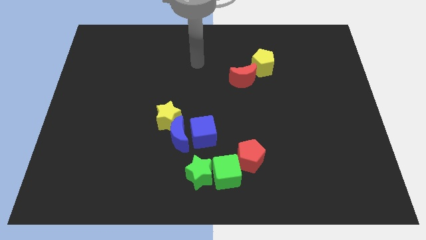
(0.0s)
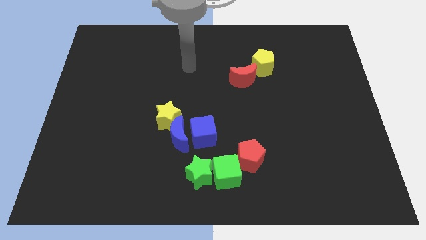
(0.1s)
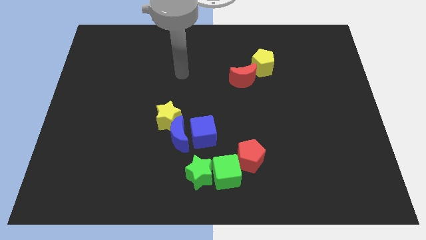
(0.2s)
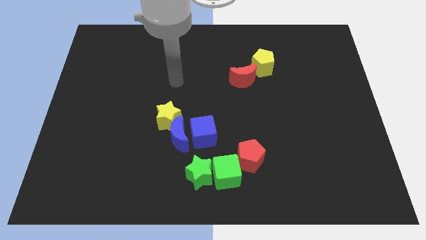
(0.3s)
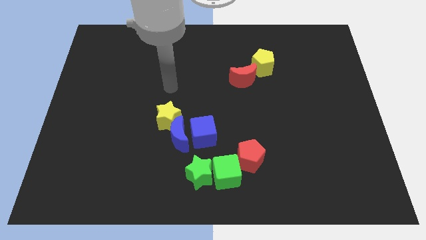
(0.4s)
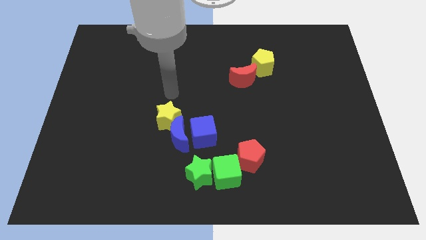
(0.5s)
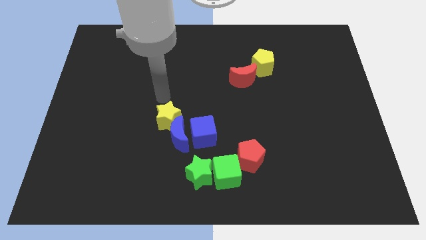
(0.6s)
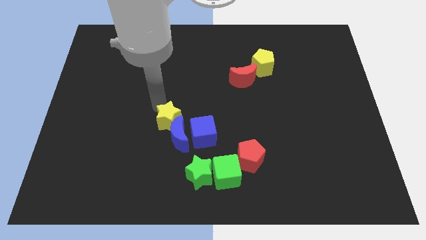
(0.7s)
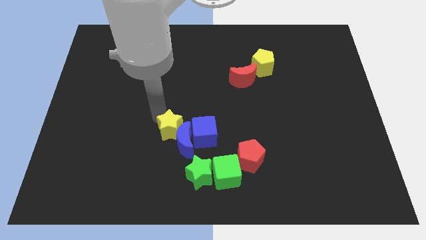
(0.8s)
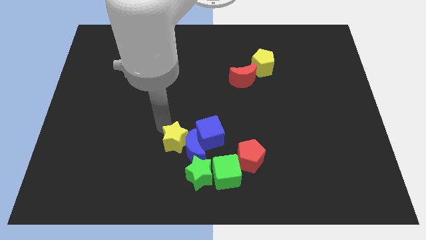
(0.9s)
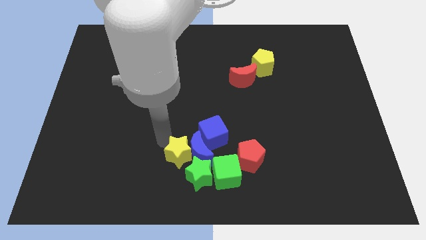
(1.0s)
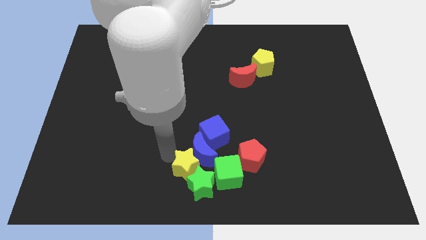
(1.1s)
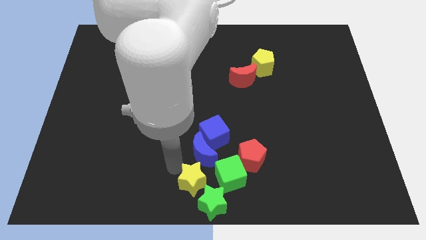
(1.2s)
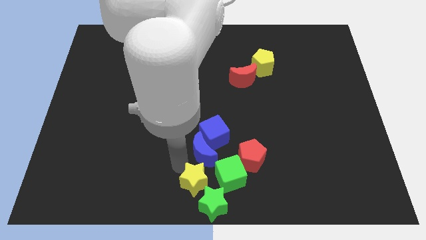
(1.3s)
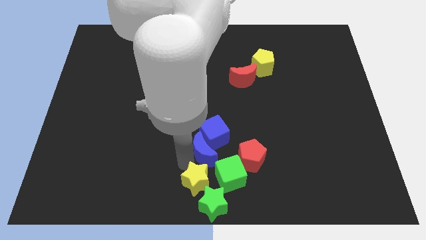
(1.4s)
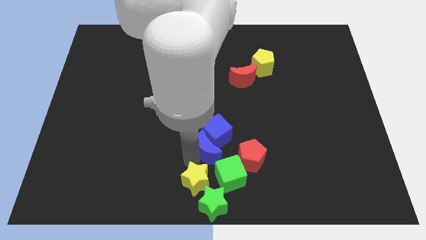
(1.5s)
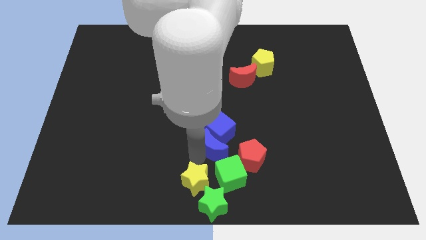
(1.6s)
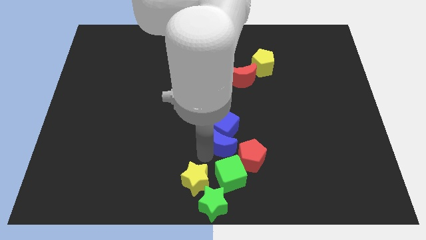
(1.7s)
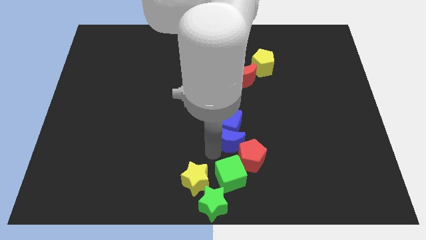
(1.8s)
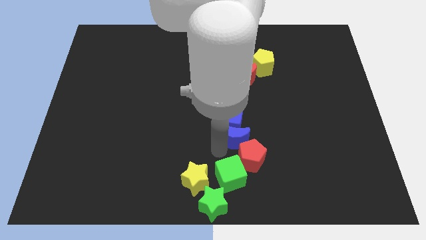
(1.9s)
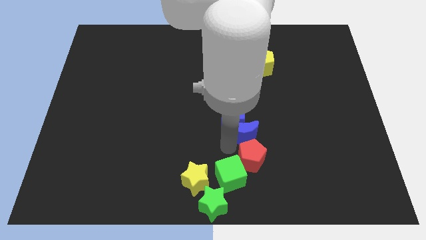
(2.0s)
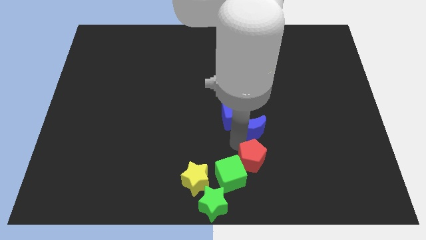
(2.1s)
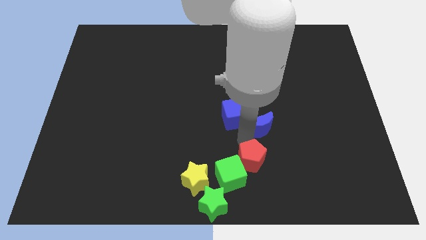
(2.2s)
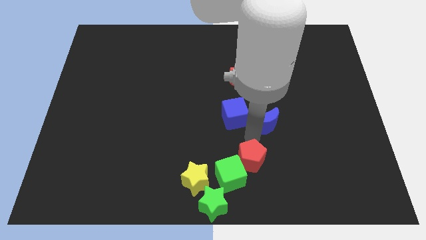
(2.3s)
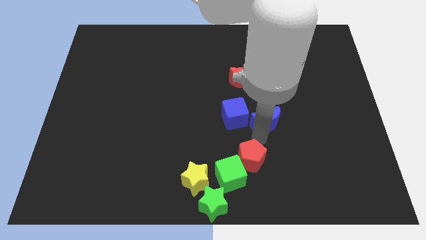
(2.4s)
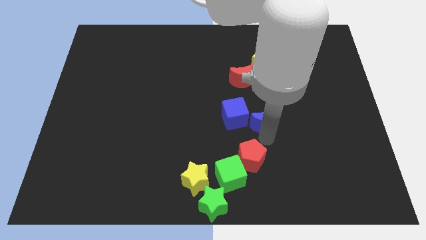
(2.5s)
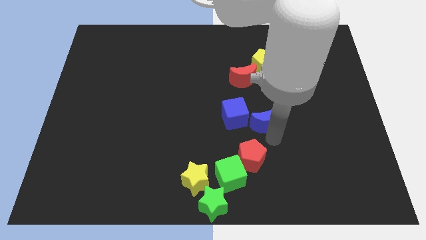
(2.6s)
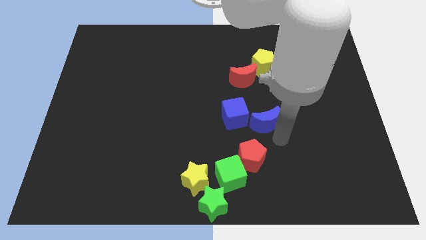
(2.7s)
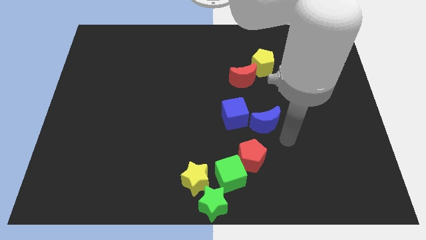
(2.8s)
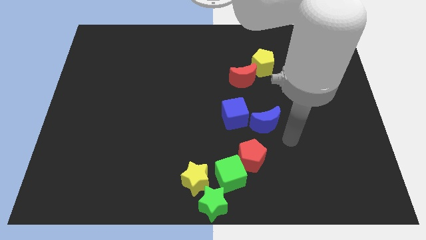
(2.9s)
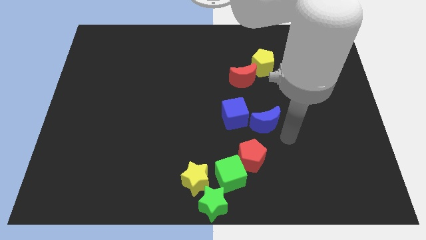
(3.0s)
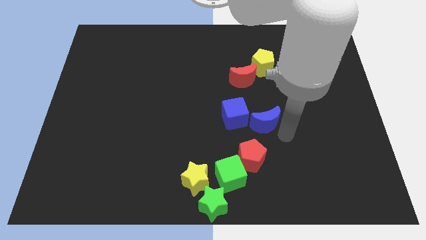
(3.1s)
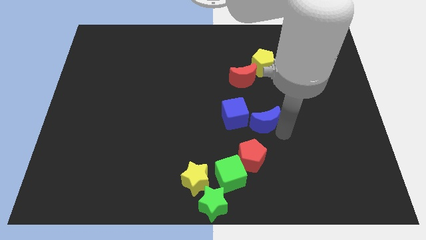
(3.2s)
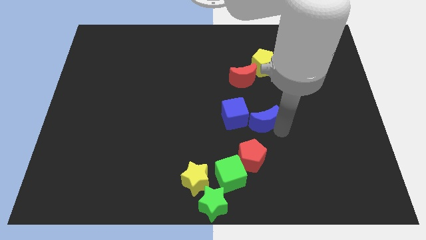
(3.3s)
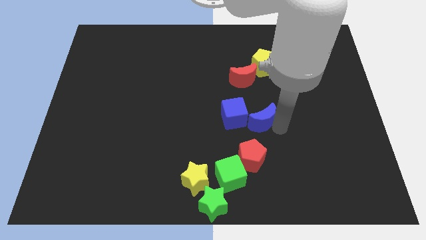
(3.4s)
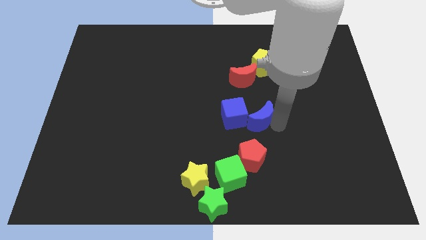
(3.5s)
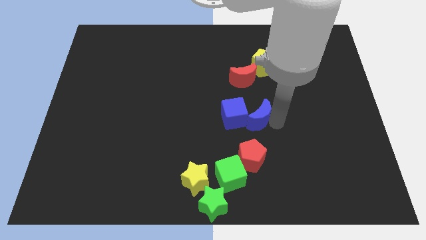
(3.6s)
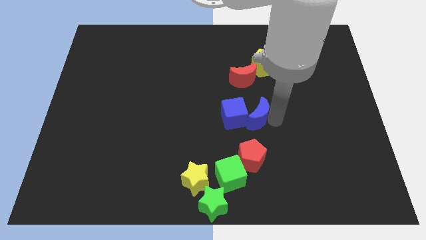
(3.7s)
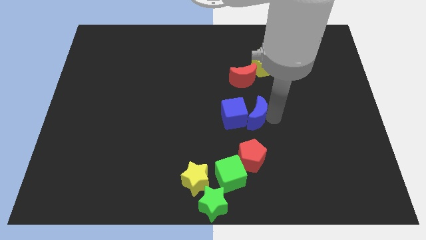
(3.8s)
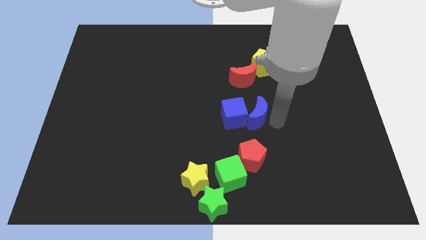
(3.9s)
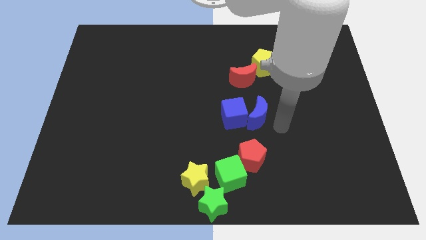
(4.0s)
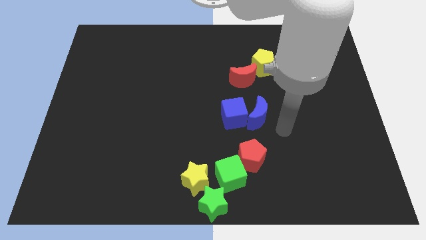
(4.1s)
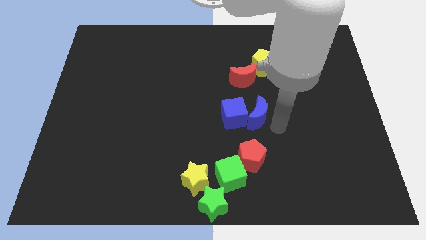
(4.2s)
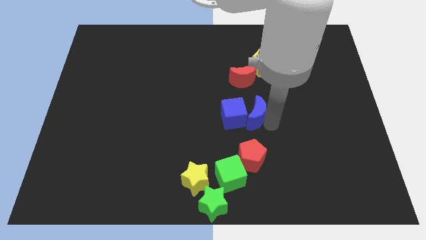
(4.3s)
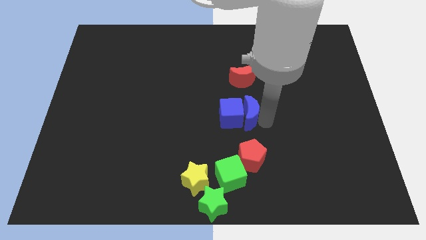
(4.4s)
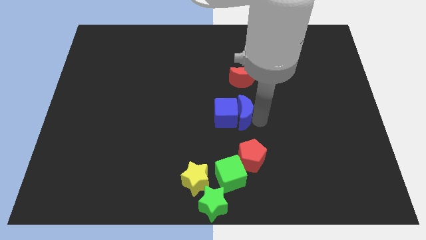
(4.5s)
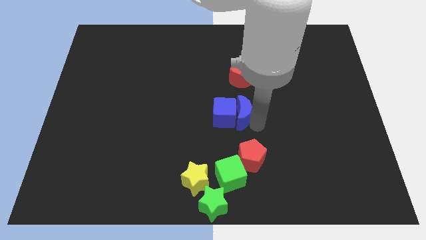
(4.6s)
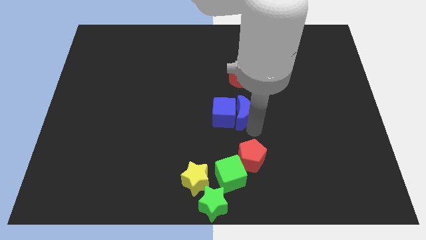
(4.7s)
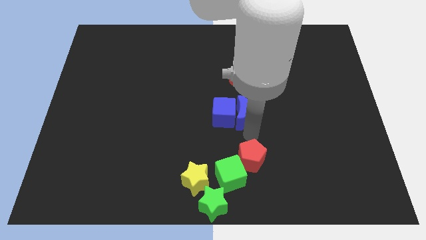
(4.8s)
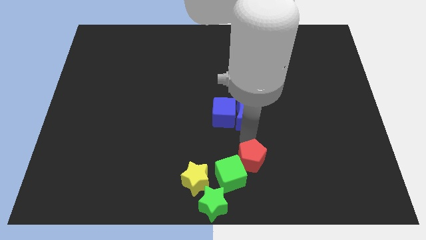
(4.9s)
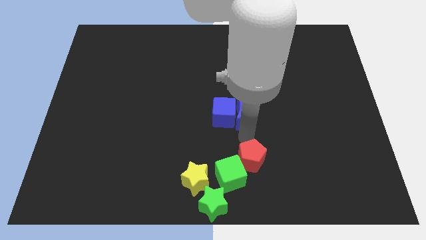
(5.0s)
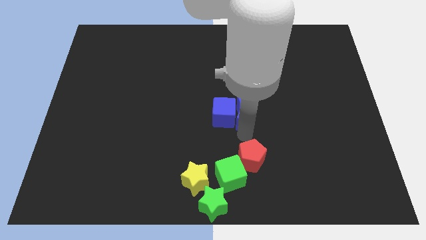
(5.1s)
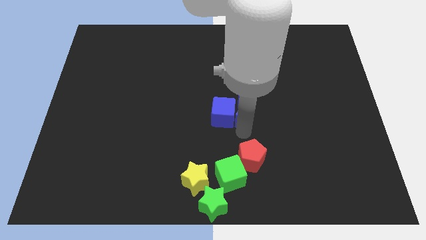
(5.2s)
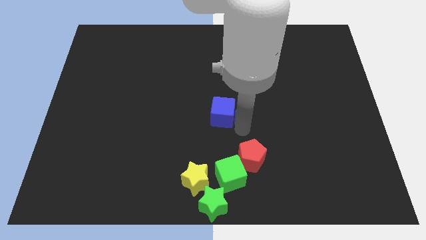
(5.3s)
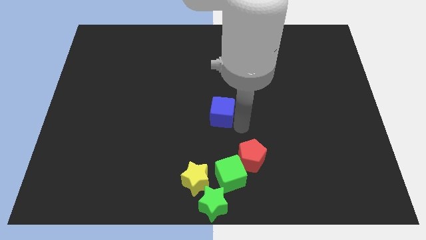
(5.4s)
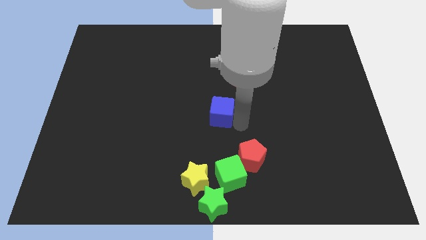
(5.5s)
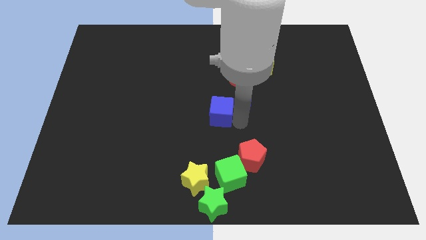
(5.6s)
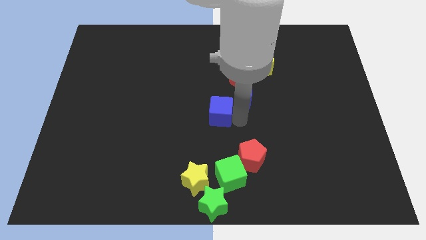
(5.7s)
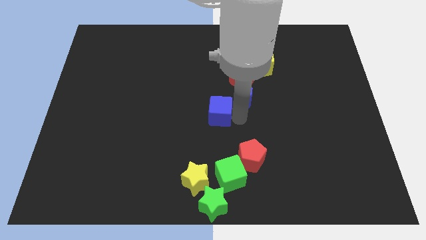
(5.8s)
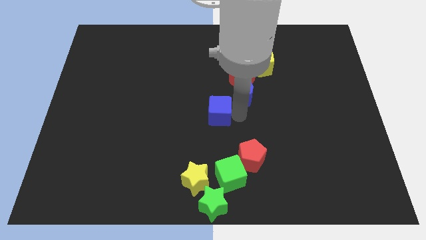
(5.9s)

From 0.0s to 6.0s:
move the blue moon close to the red moon
